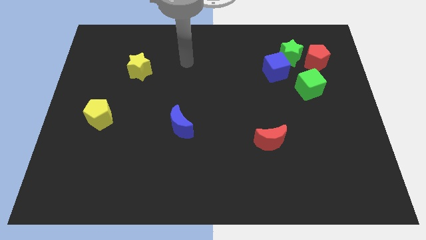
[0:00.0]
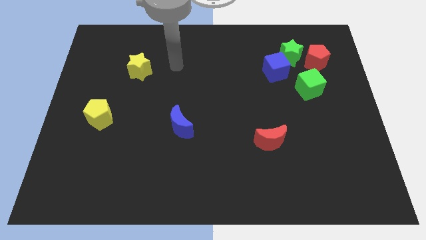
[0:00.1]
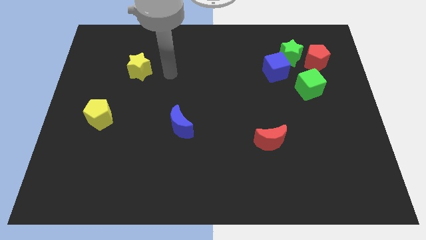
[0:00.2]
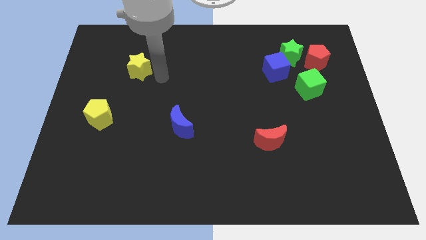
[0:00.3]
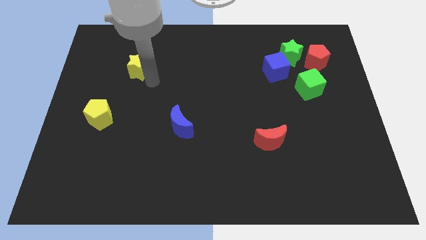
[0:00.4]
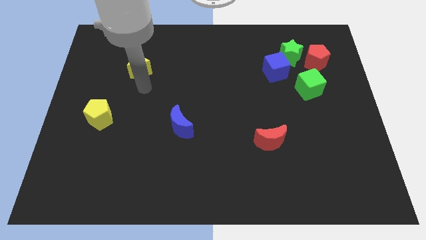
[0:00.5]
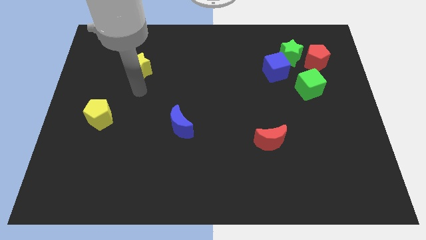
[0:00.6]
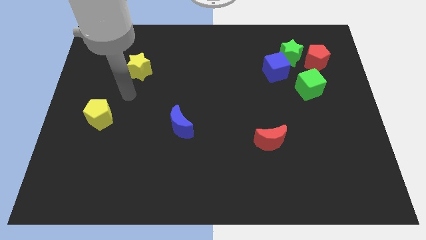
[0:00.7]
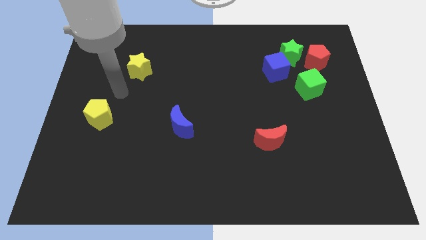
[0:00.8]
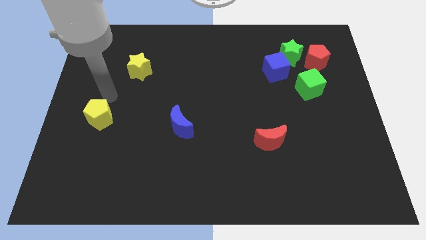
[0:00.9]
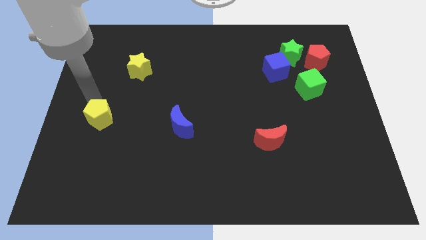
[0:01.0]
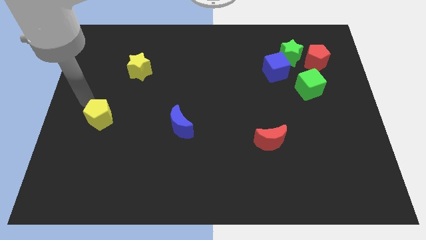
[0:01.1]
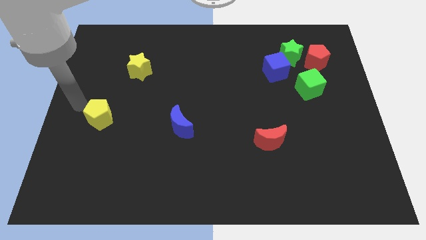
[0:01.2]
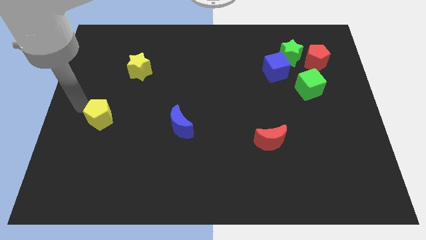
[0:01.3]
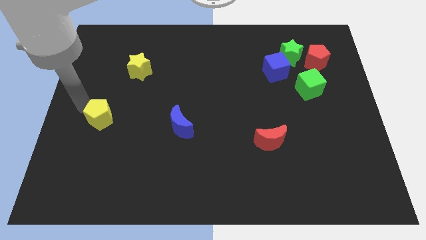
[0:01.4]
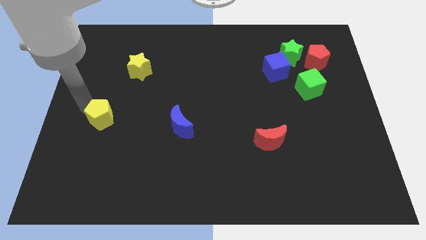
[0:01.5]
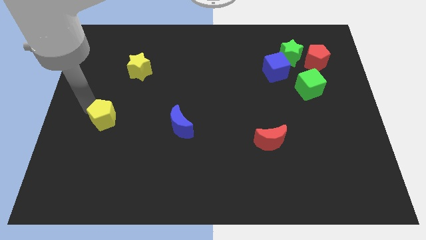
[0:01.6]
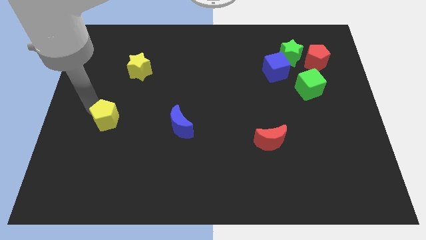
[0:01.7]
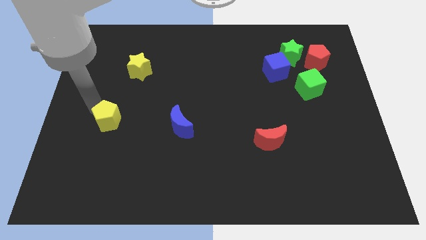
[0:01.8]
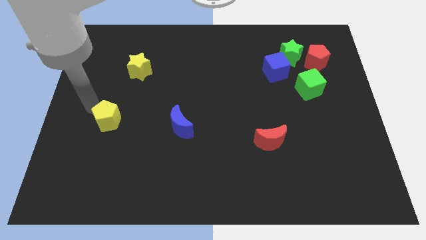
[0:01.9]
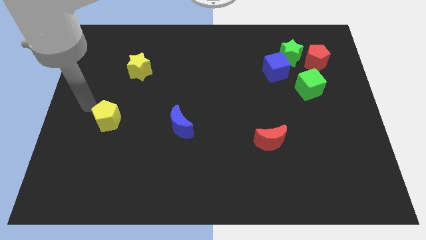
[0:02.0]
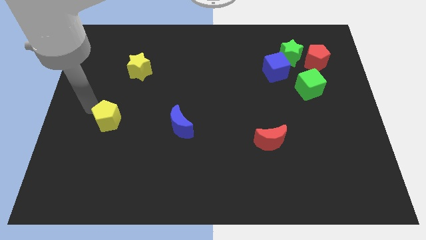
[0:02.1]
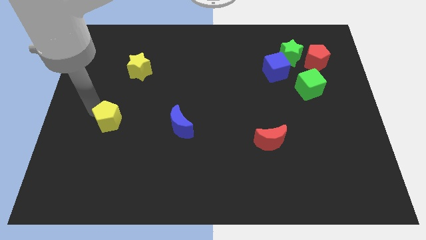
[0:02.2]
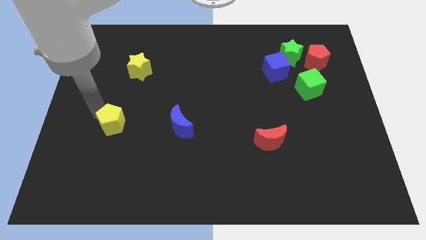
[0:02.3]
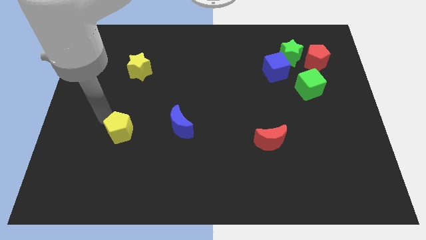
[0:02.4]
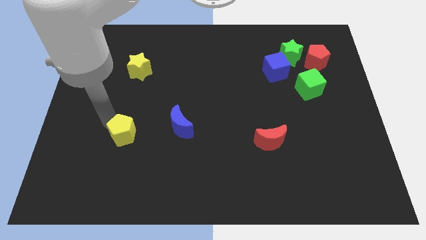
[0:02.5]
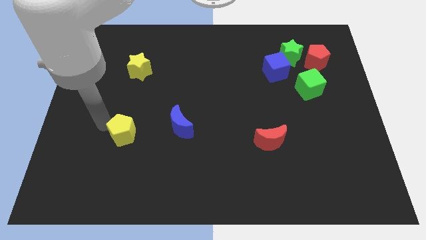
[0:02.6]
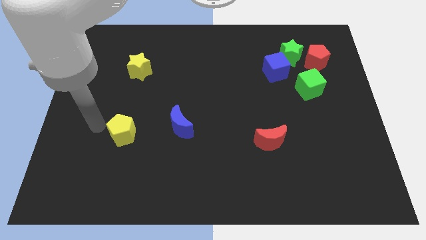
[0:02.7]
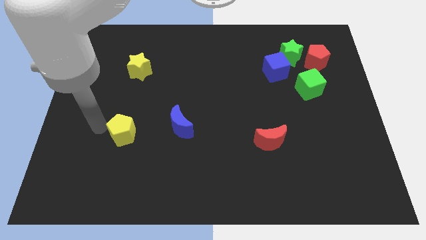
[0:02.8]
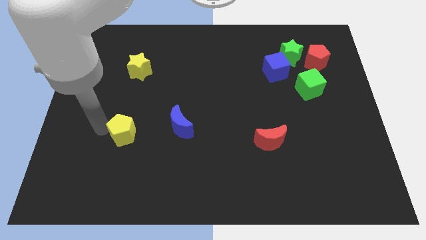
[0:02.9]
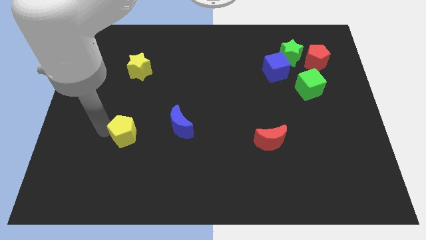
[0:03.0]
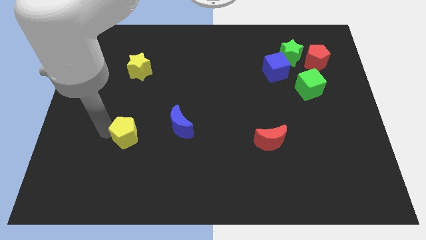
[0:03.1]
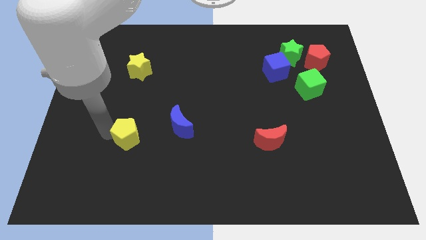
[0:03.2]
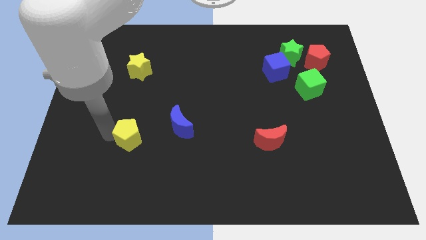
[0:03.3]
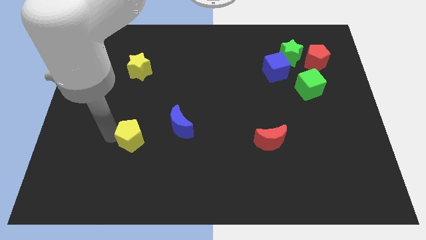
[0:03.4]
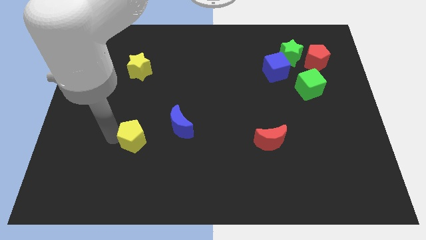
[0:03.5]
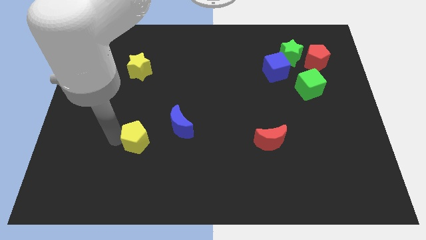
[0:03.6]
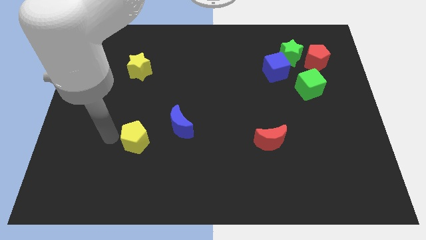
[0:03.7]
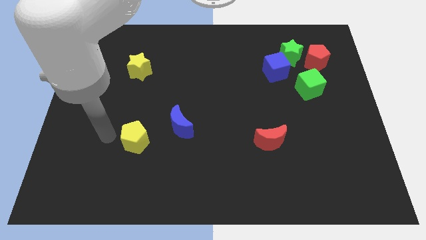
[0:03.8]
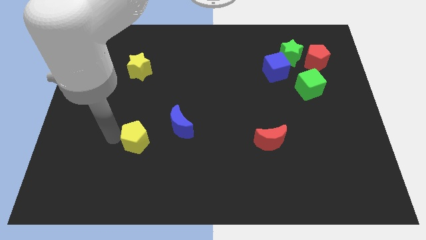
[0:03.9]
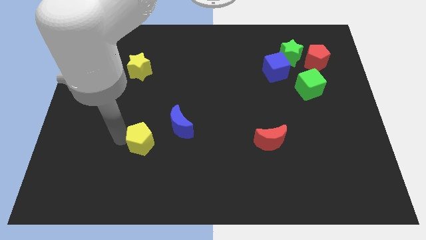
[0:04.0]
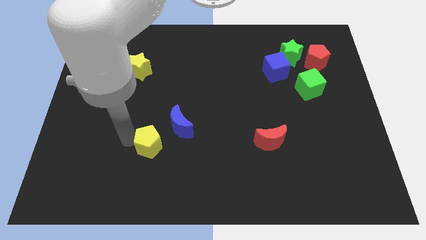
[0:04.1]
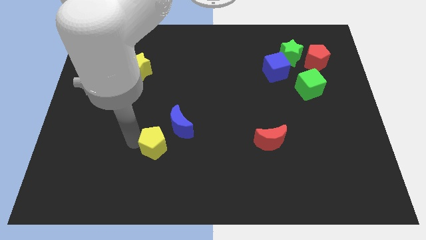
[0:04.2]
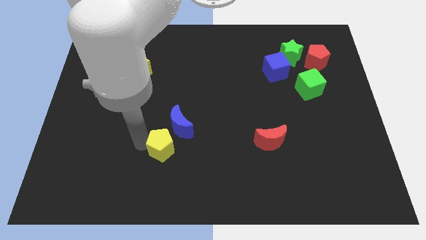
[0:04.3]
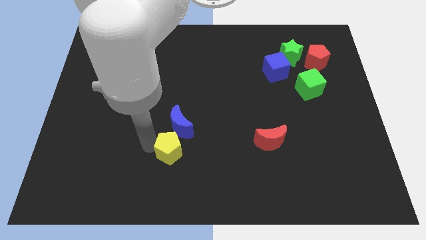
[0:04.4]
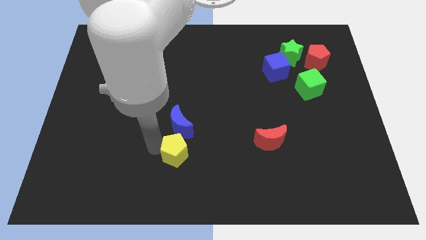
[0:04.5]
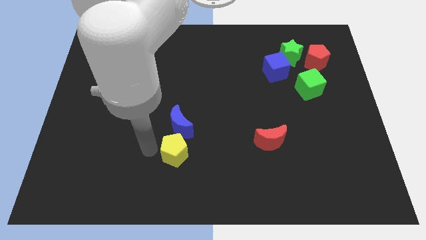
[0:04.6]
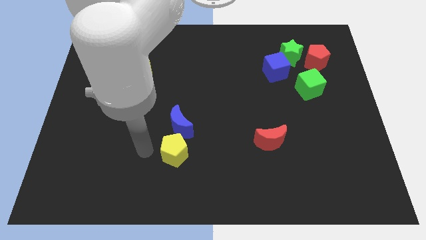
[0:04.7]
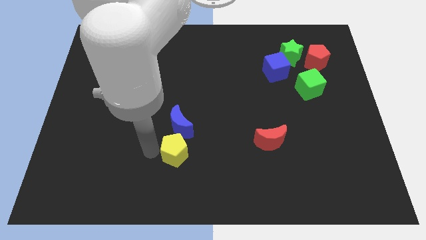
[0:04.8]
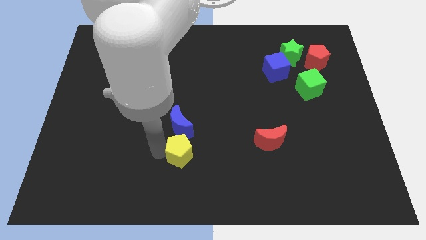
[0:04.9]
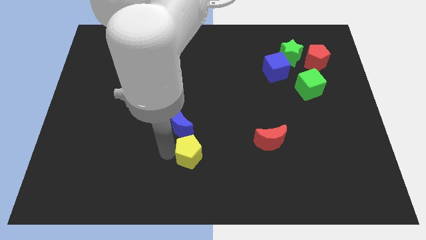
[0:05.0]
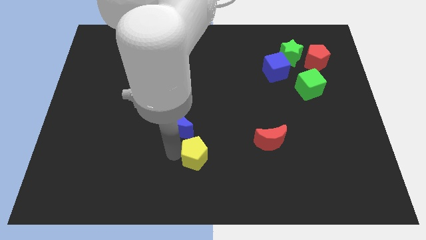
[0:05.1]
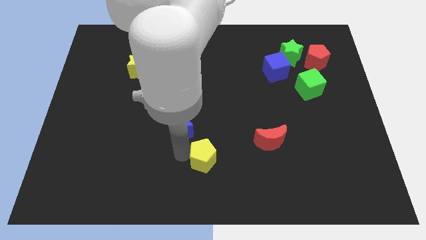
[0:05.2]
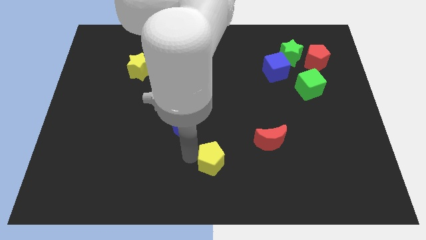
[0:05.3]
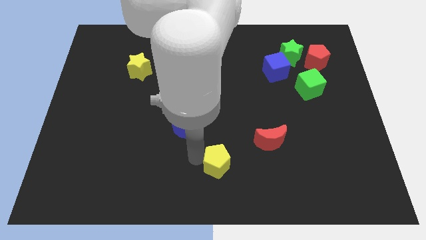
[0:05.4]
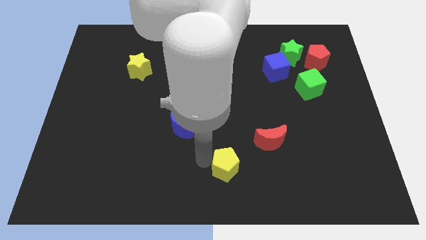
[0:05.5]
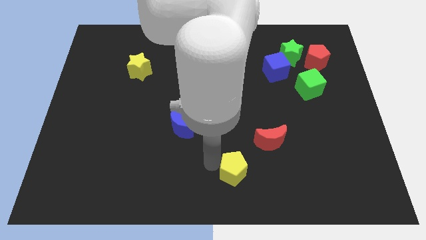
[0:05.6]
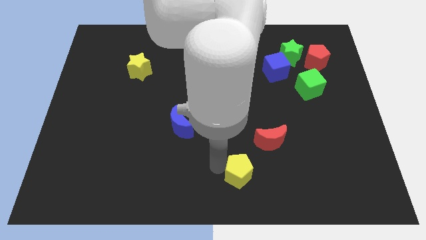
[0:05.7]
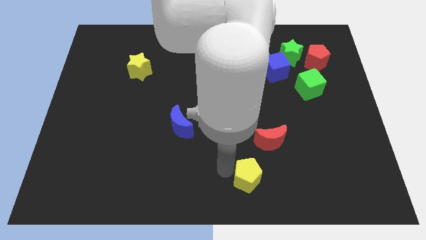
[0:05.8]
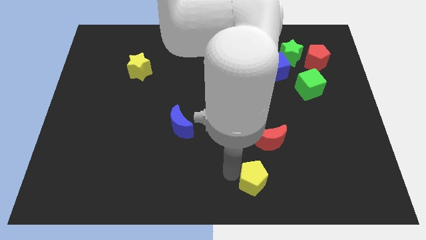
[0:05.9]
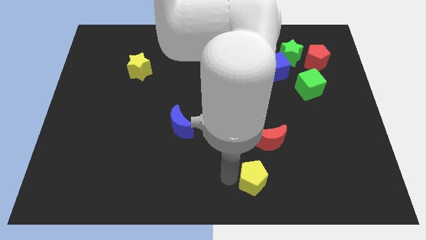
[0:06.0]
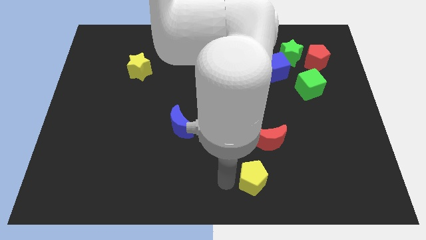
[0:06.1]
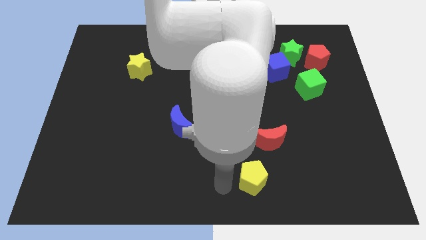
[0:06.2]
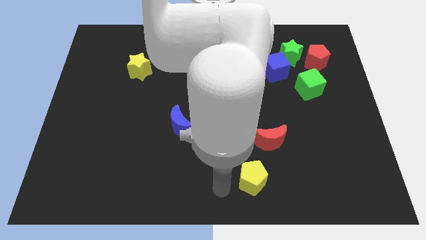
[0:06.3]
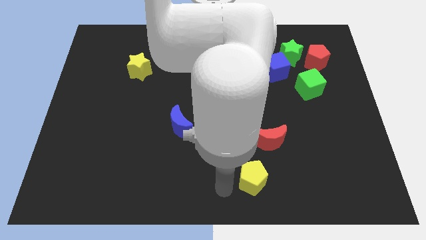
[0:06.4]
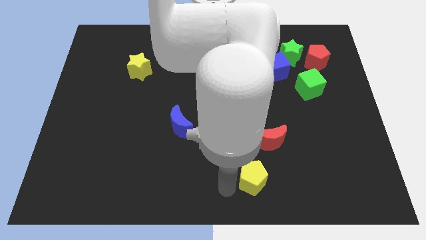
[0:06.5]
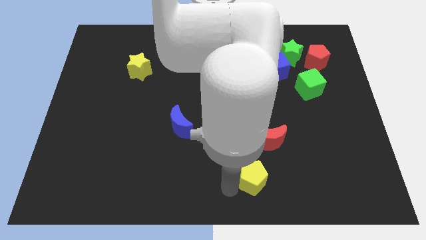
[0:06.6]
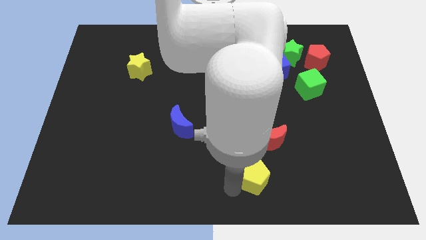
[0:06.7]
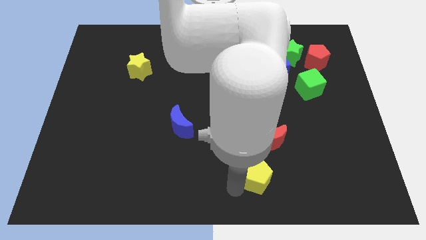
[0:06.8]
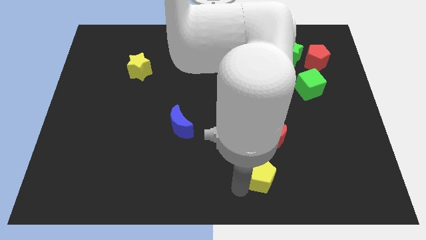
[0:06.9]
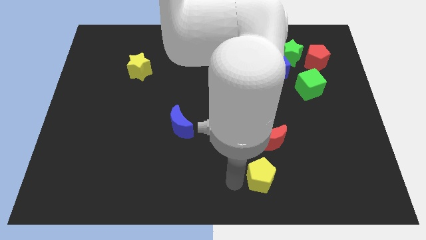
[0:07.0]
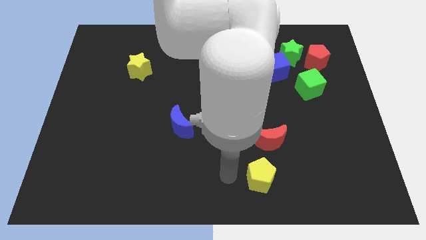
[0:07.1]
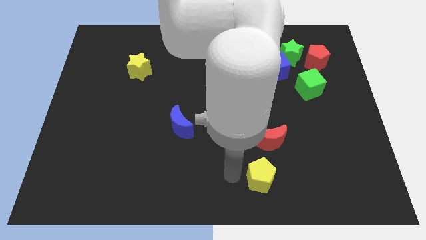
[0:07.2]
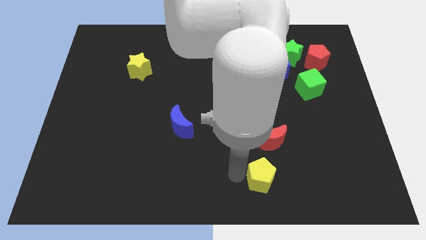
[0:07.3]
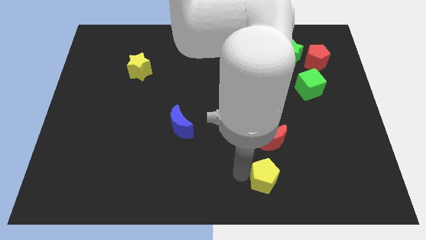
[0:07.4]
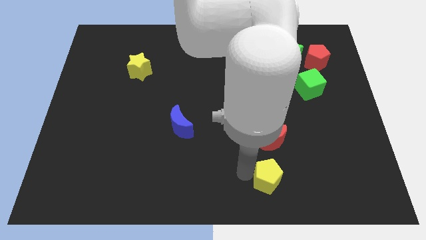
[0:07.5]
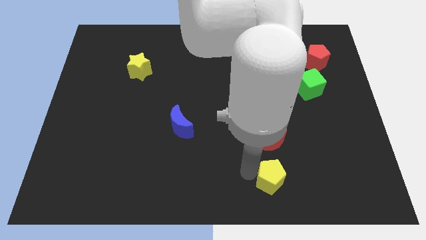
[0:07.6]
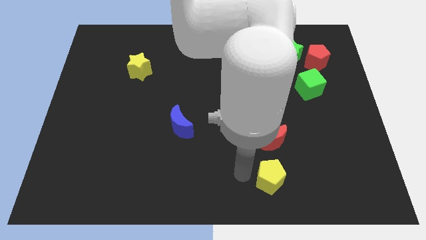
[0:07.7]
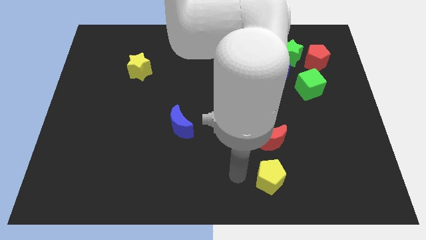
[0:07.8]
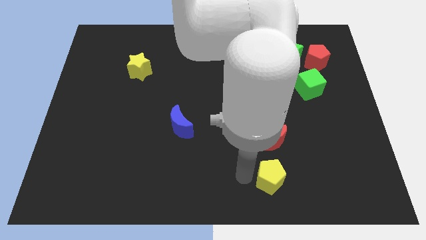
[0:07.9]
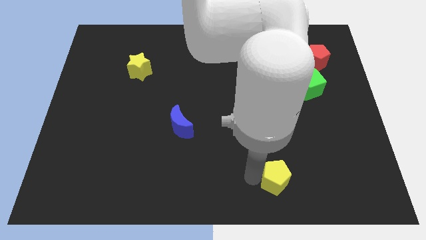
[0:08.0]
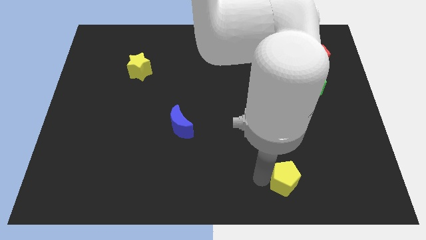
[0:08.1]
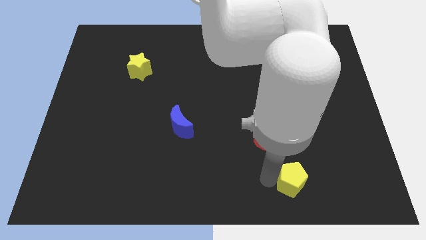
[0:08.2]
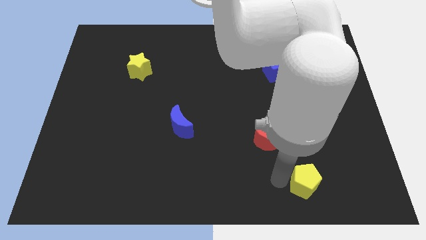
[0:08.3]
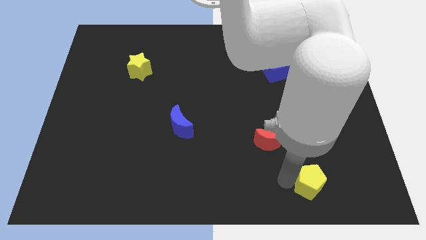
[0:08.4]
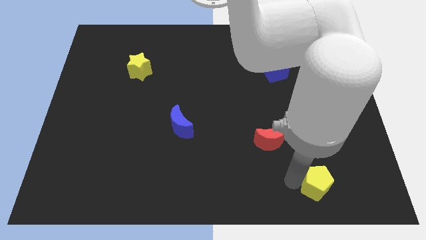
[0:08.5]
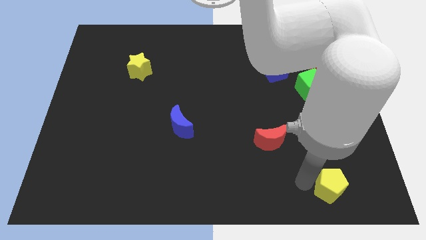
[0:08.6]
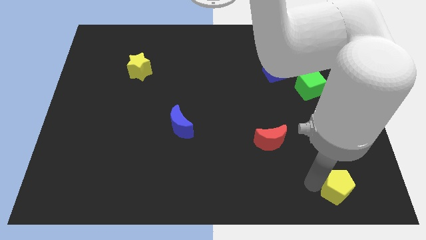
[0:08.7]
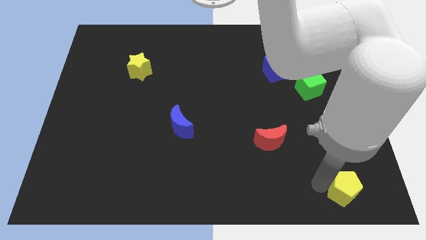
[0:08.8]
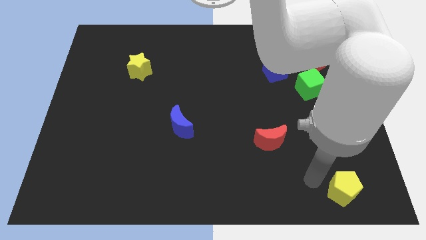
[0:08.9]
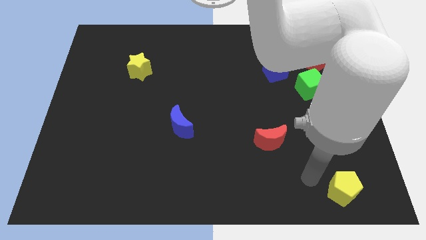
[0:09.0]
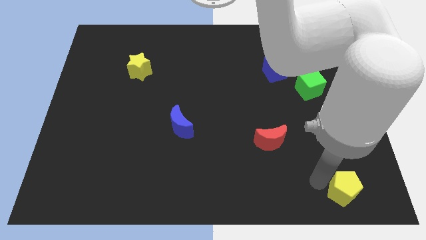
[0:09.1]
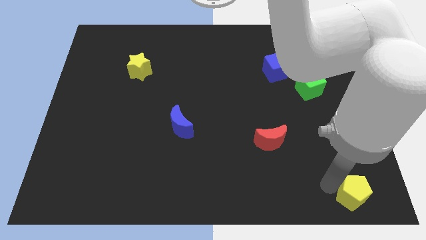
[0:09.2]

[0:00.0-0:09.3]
push the yellow pentagon to the bottom right
